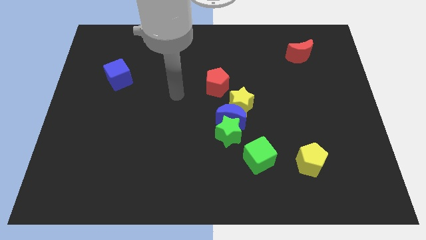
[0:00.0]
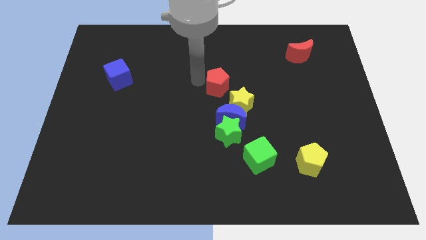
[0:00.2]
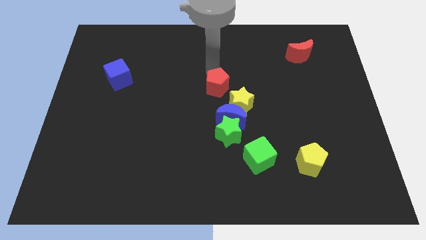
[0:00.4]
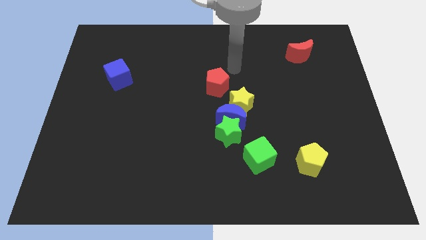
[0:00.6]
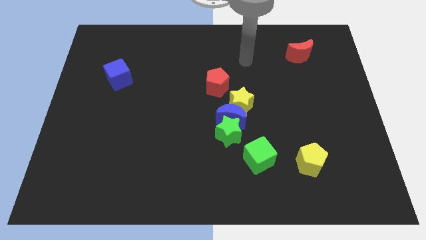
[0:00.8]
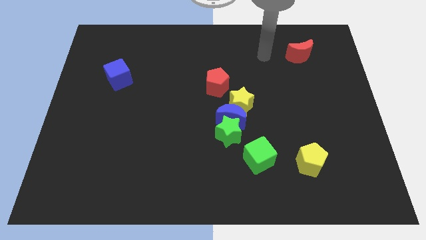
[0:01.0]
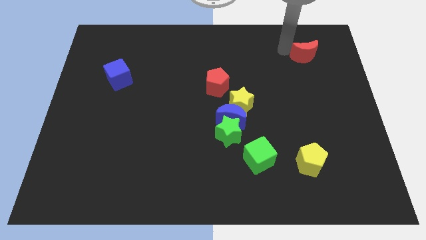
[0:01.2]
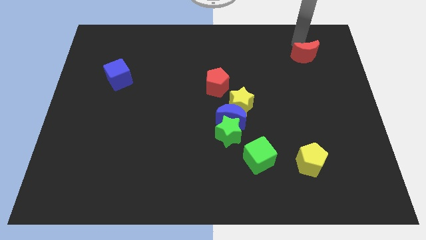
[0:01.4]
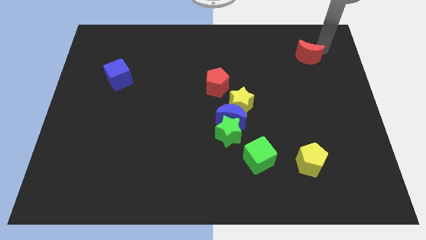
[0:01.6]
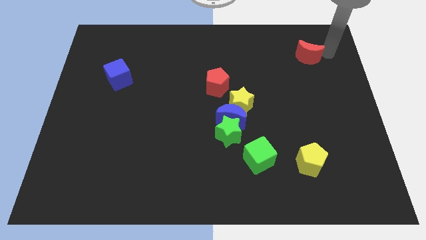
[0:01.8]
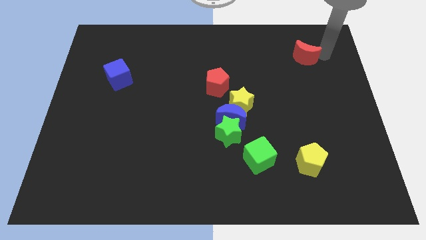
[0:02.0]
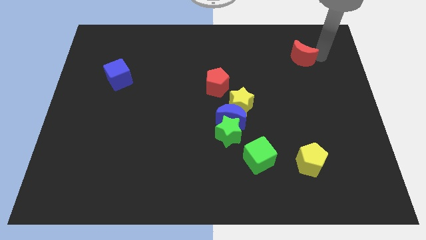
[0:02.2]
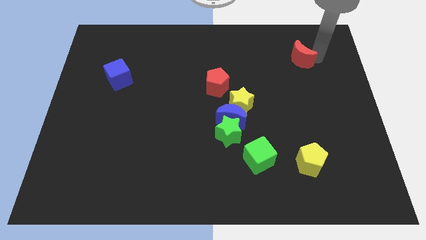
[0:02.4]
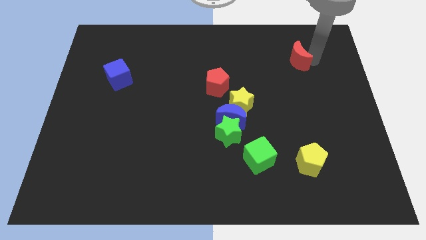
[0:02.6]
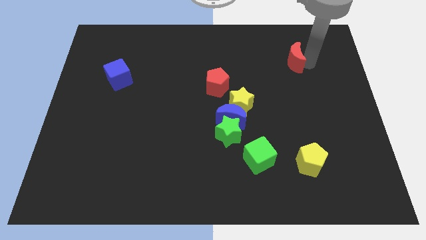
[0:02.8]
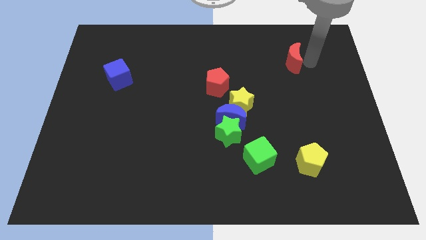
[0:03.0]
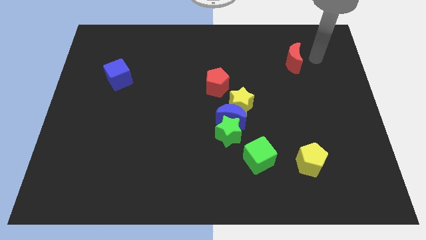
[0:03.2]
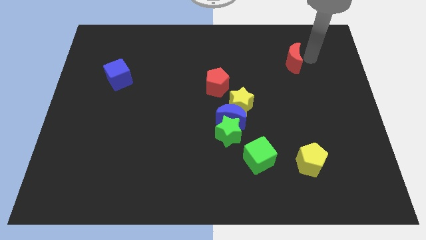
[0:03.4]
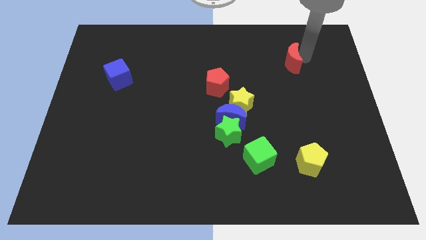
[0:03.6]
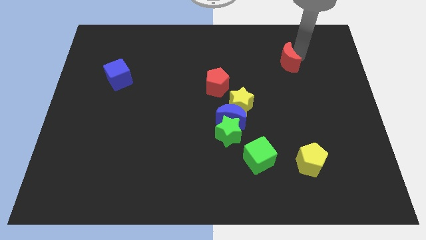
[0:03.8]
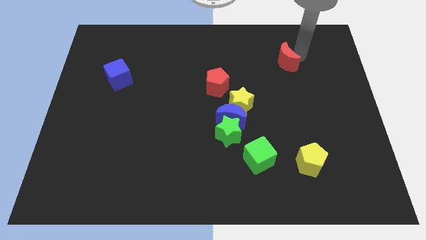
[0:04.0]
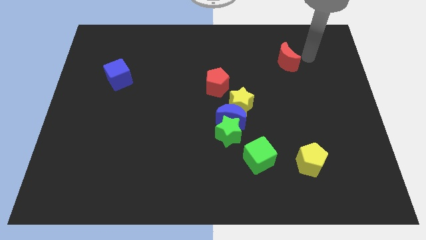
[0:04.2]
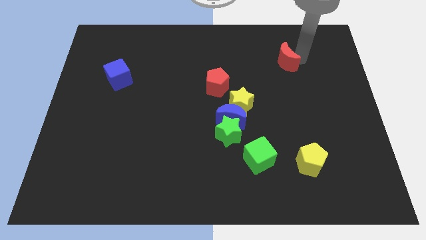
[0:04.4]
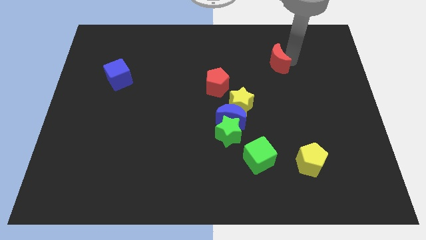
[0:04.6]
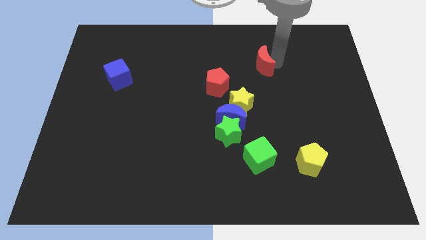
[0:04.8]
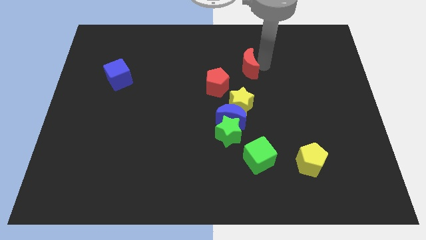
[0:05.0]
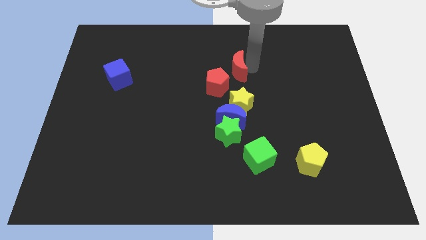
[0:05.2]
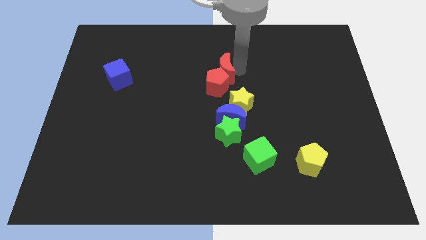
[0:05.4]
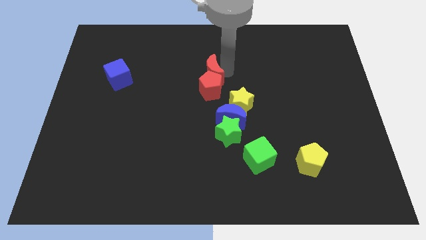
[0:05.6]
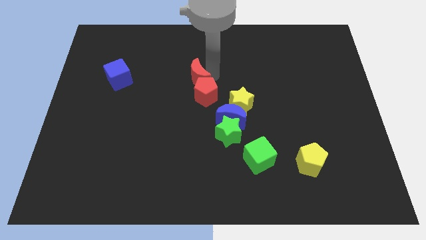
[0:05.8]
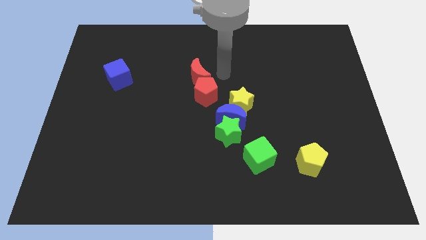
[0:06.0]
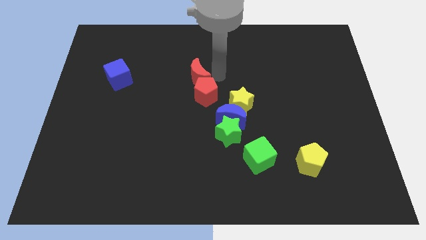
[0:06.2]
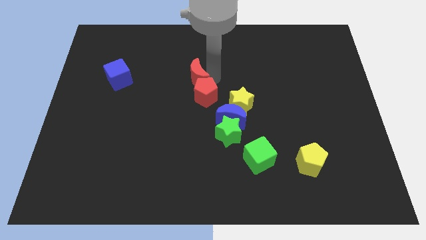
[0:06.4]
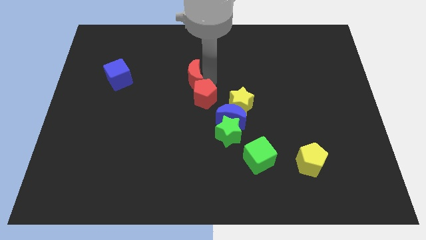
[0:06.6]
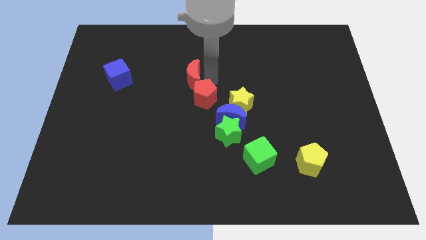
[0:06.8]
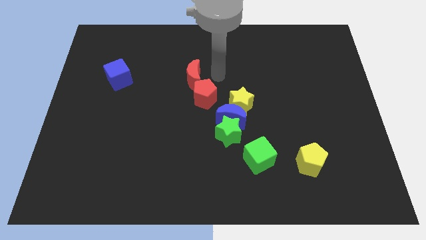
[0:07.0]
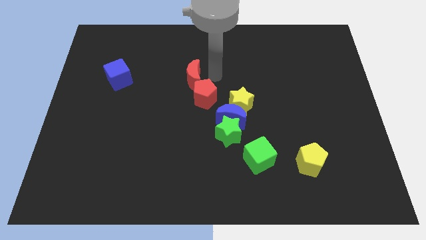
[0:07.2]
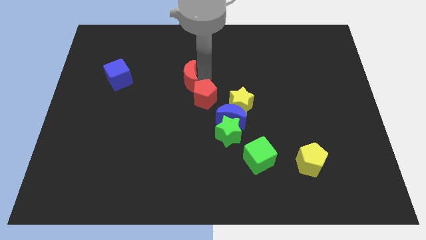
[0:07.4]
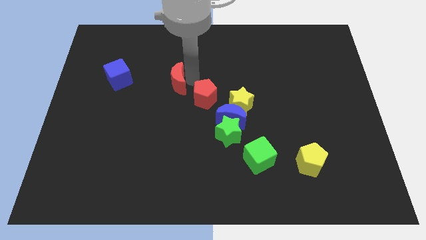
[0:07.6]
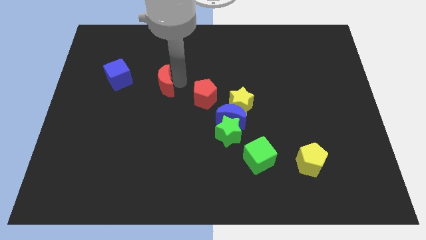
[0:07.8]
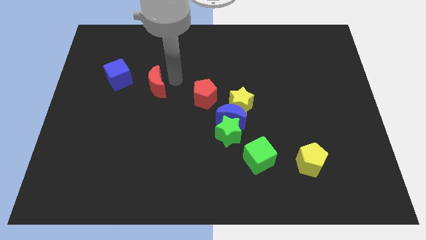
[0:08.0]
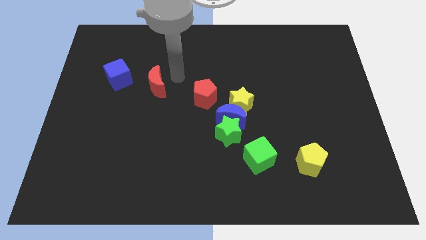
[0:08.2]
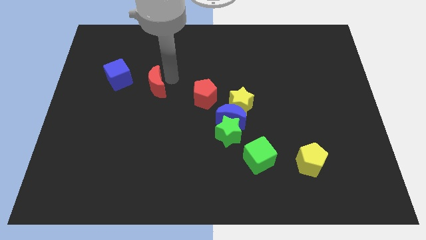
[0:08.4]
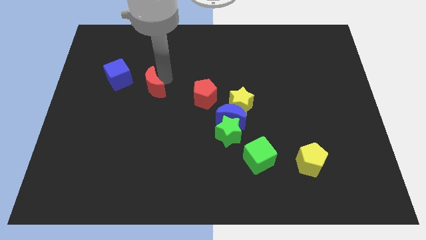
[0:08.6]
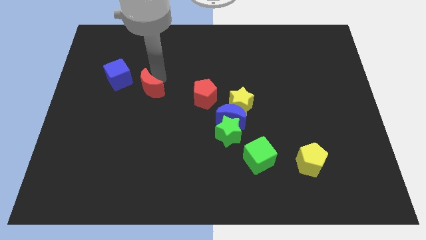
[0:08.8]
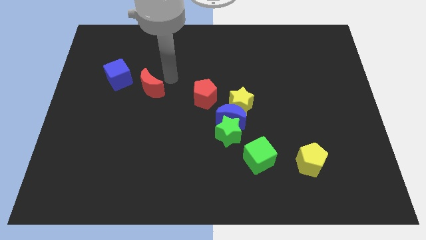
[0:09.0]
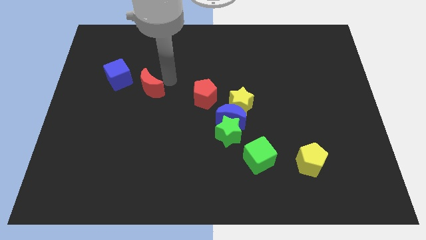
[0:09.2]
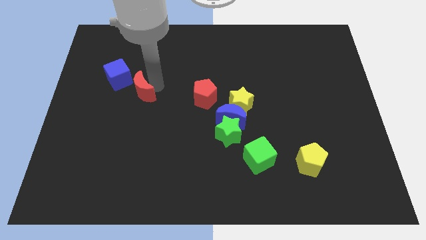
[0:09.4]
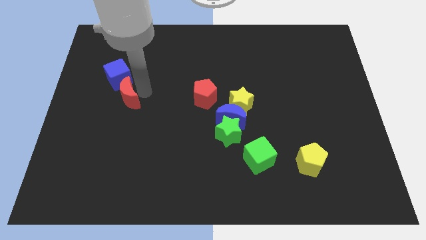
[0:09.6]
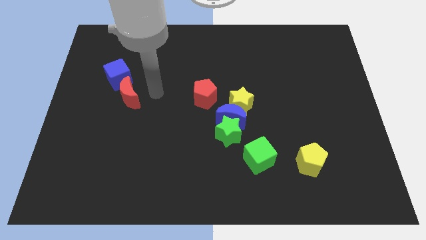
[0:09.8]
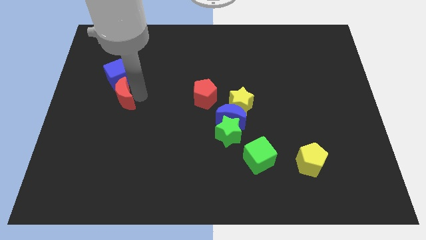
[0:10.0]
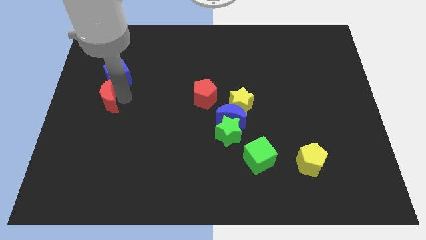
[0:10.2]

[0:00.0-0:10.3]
slide the red moon to the center left

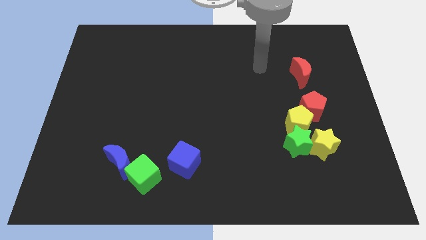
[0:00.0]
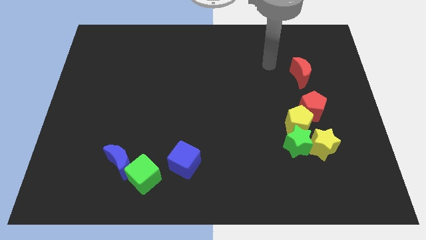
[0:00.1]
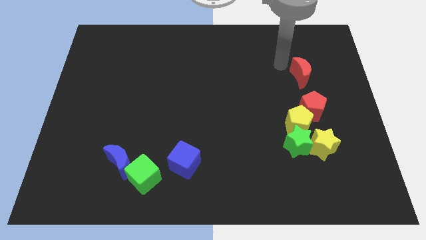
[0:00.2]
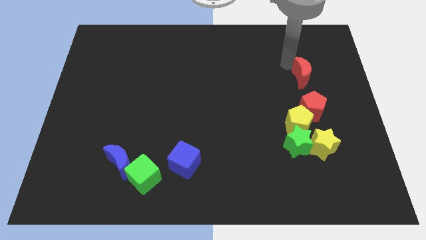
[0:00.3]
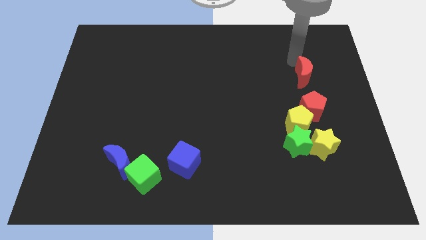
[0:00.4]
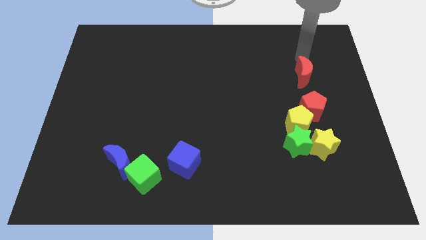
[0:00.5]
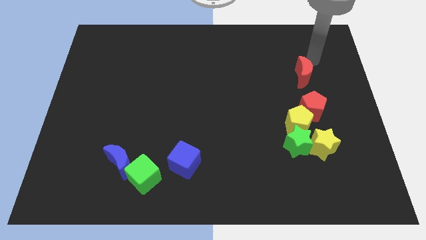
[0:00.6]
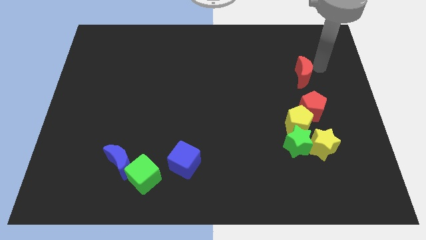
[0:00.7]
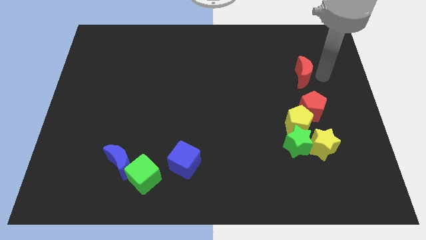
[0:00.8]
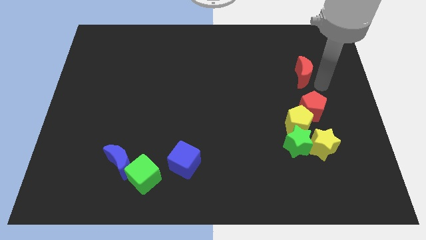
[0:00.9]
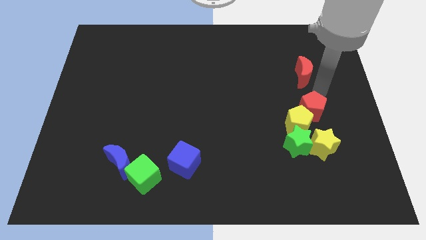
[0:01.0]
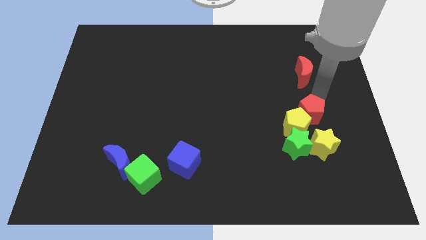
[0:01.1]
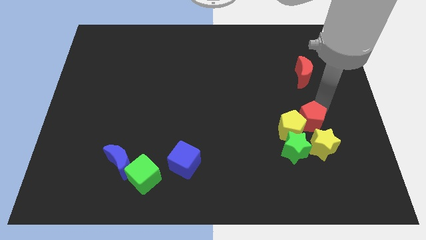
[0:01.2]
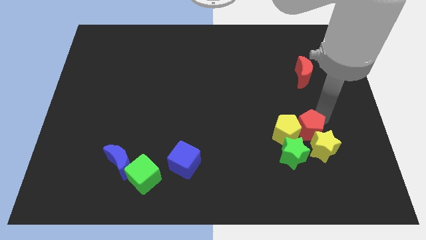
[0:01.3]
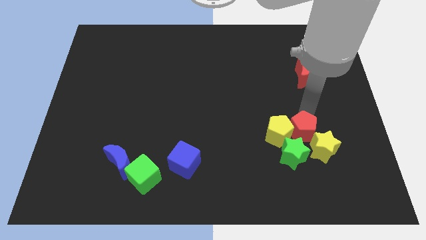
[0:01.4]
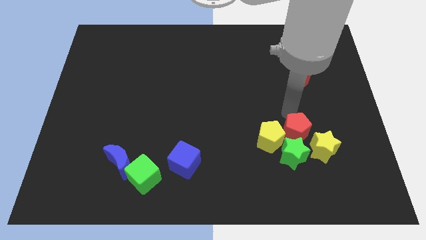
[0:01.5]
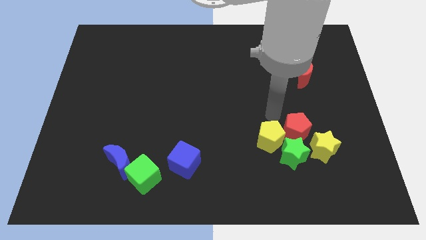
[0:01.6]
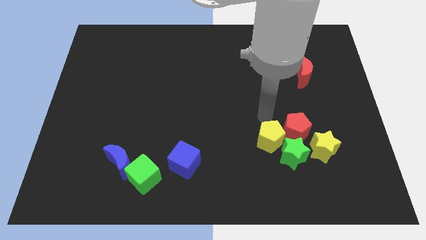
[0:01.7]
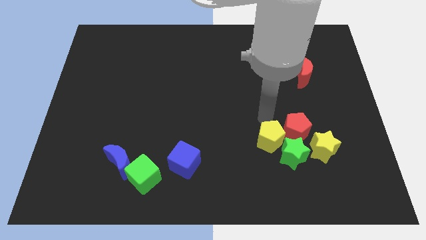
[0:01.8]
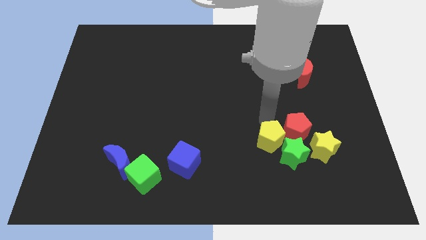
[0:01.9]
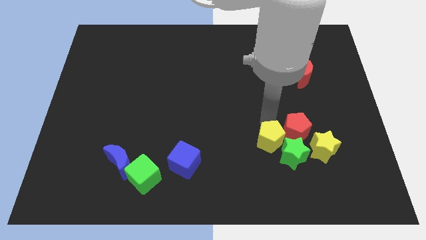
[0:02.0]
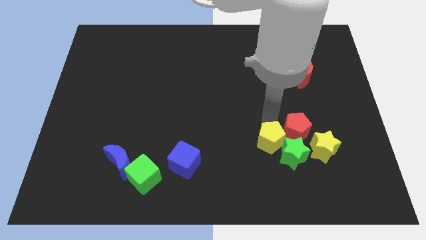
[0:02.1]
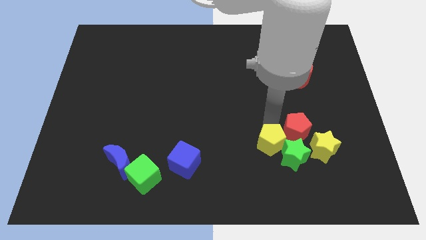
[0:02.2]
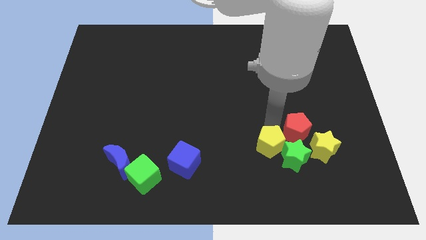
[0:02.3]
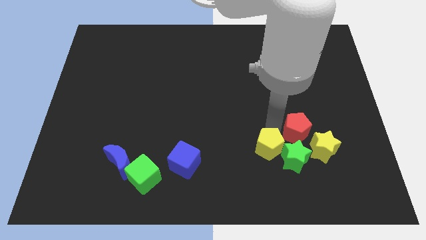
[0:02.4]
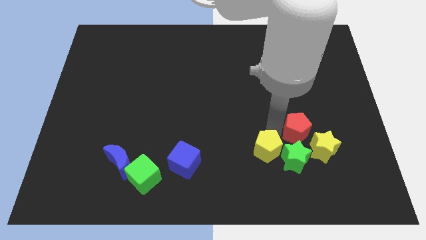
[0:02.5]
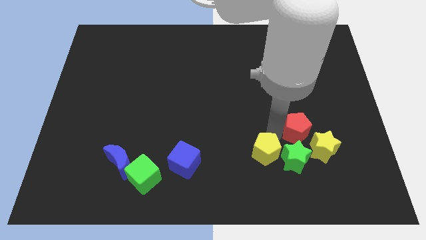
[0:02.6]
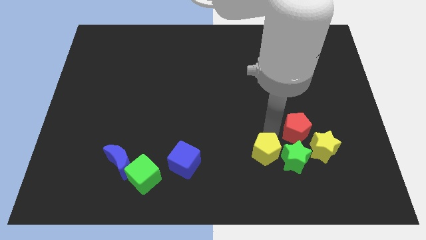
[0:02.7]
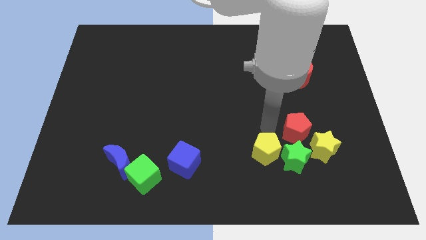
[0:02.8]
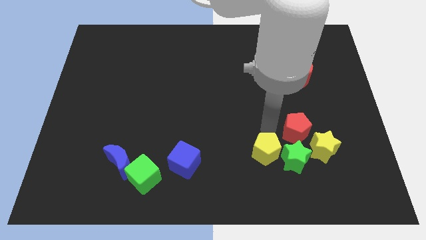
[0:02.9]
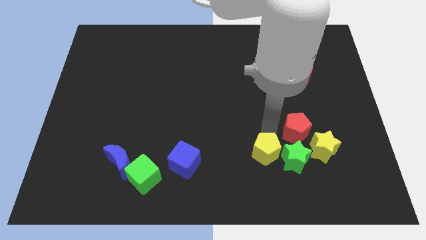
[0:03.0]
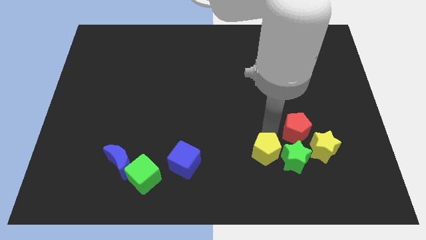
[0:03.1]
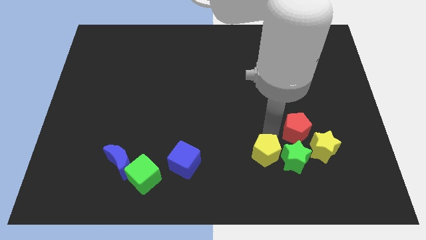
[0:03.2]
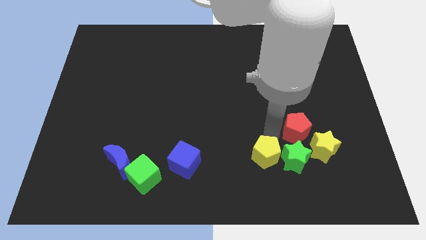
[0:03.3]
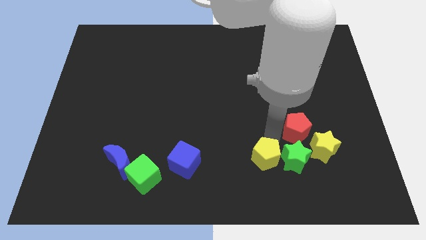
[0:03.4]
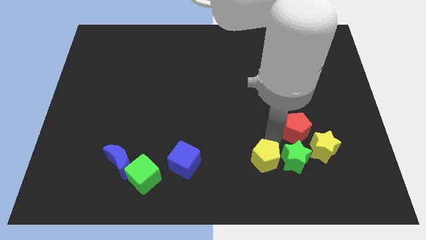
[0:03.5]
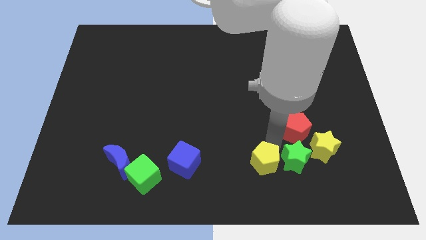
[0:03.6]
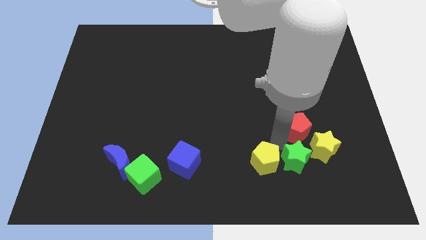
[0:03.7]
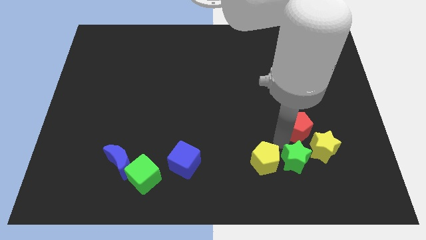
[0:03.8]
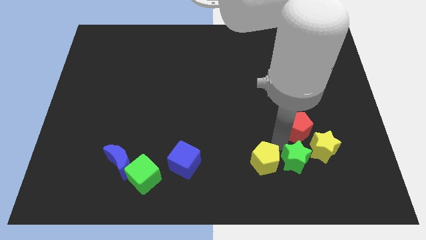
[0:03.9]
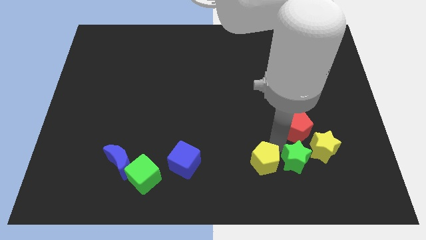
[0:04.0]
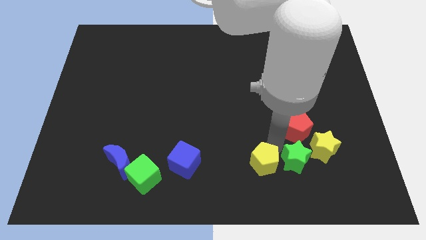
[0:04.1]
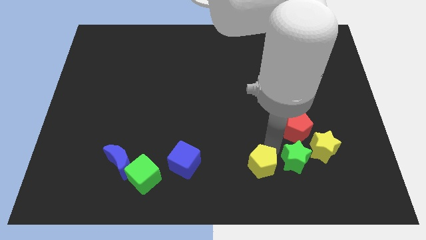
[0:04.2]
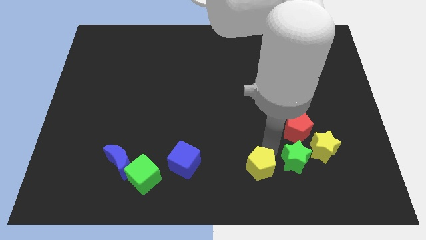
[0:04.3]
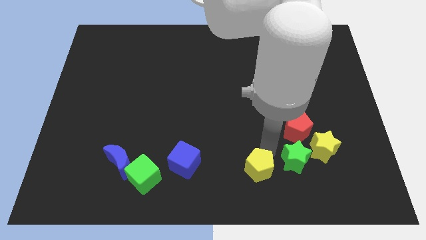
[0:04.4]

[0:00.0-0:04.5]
slide the yellow pentagon to the bottom
